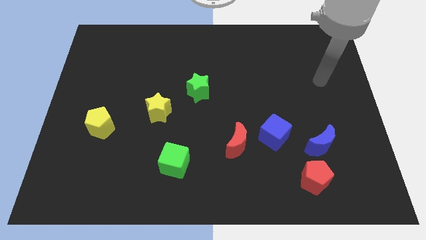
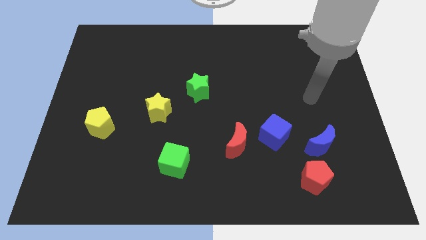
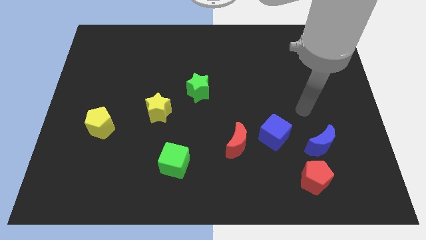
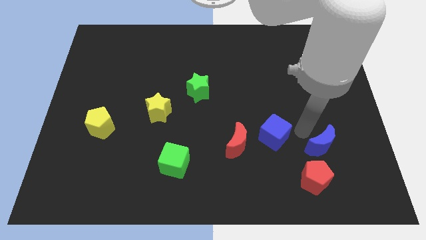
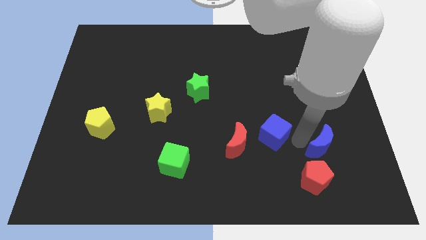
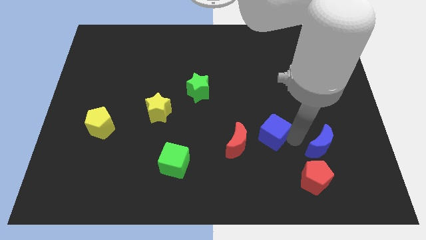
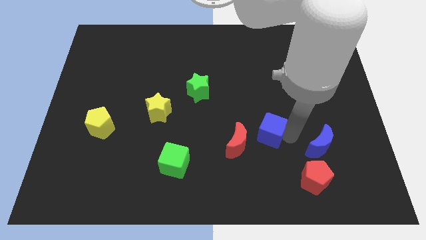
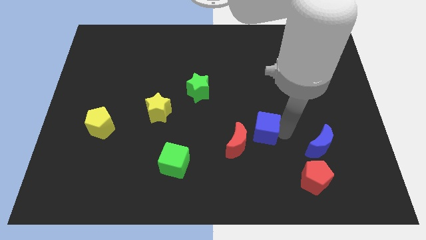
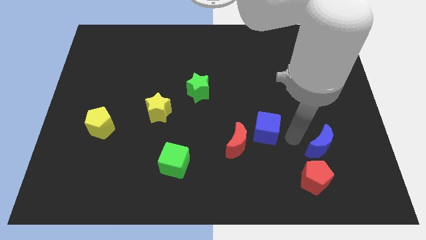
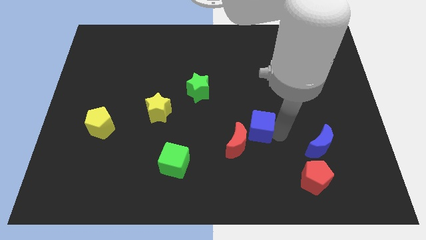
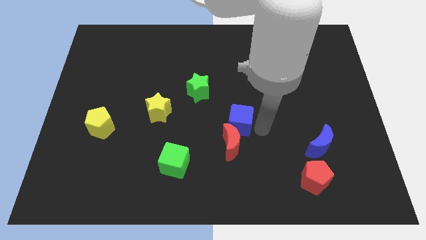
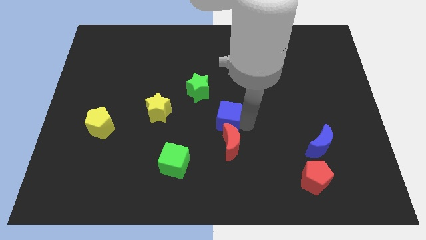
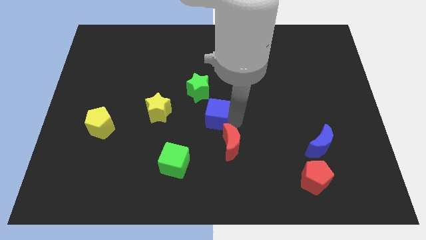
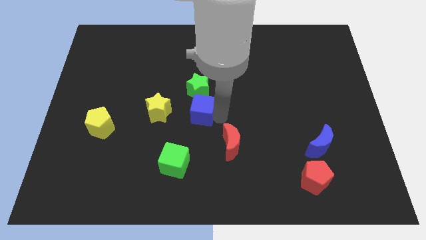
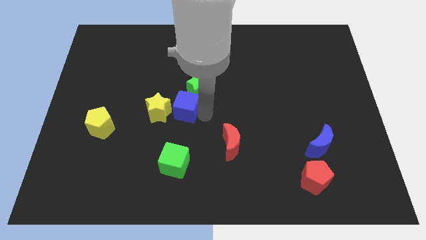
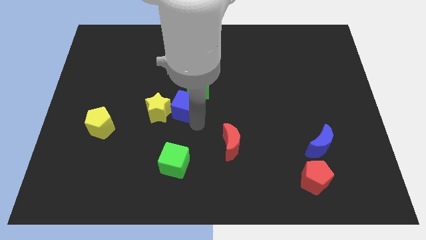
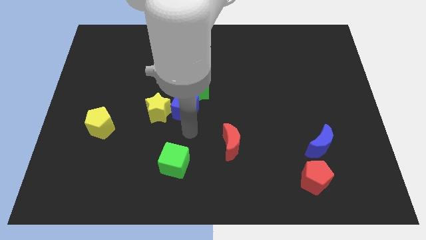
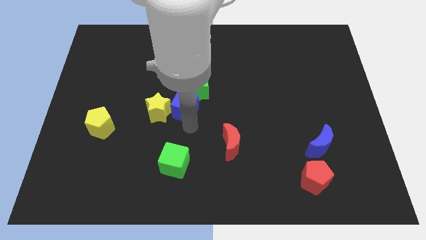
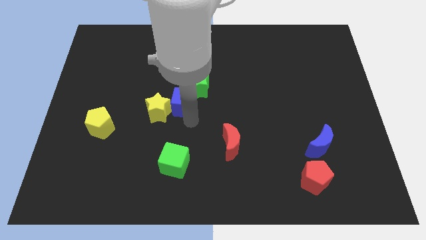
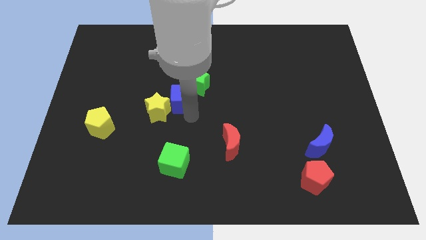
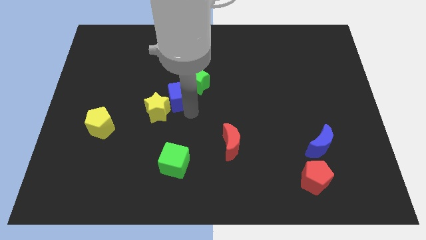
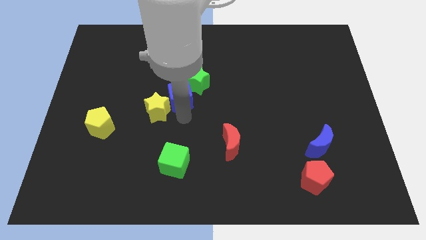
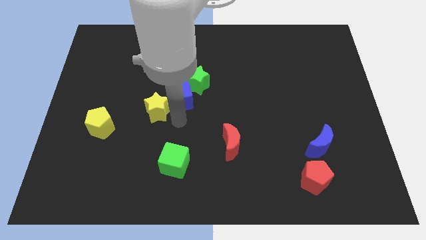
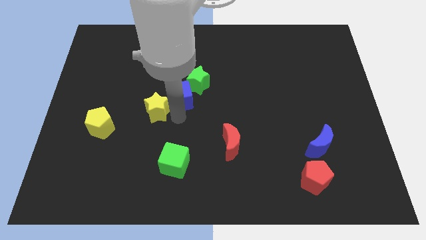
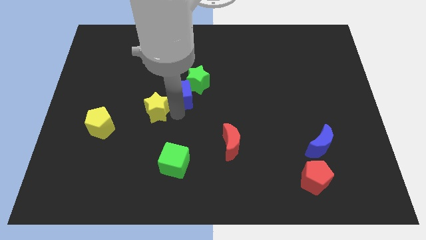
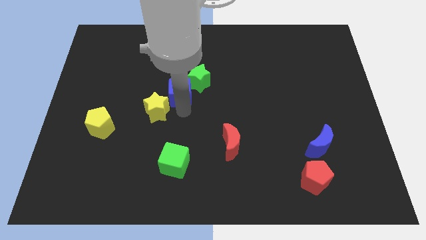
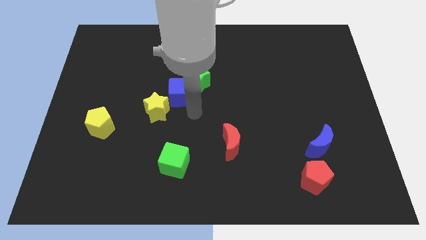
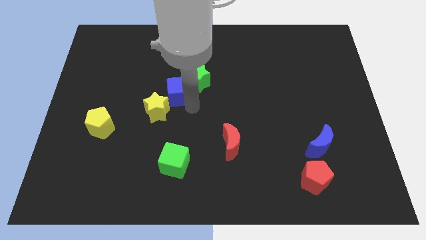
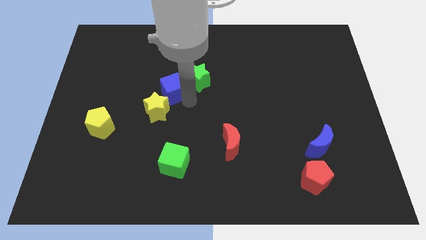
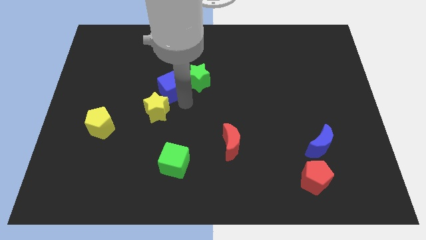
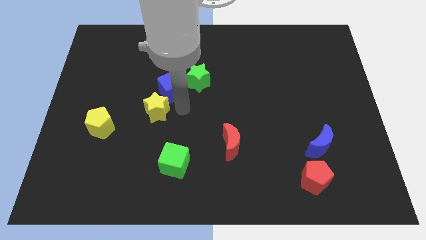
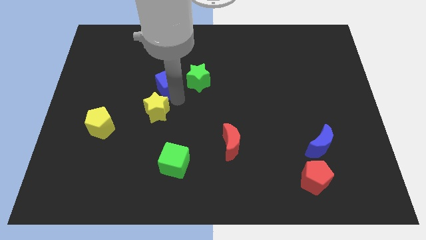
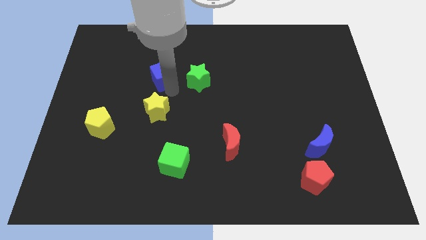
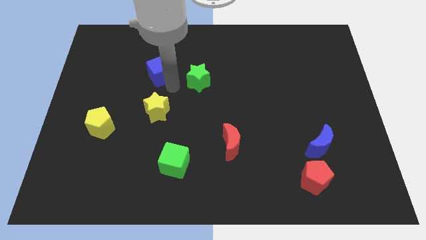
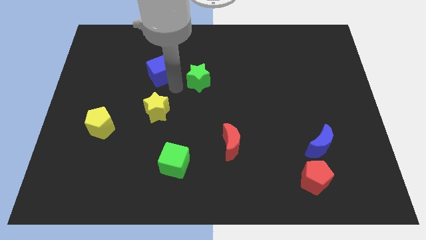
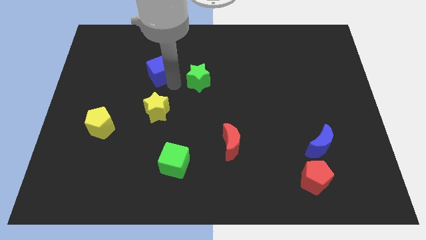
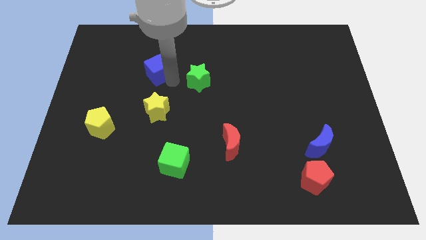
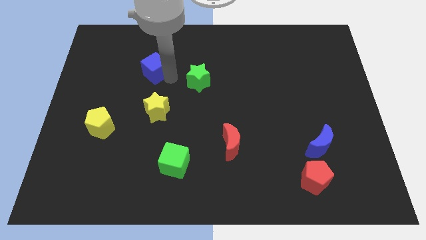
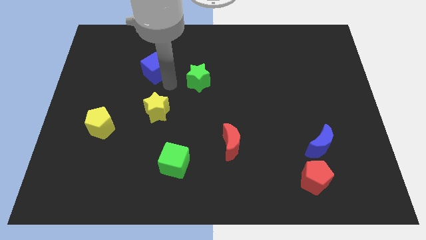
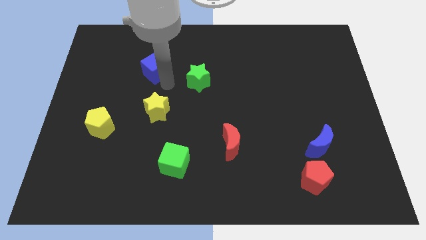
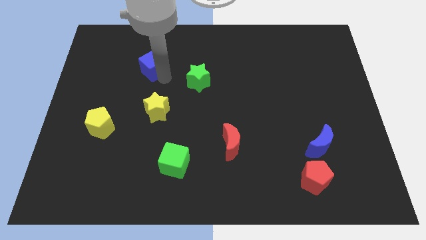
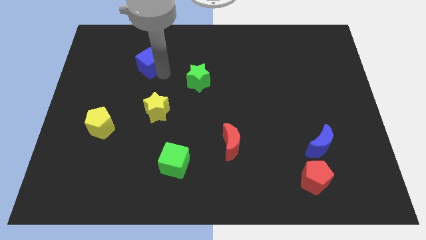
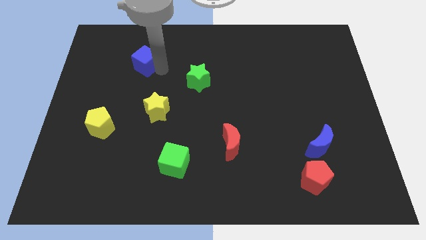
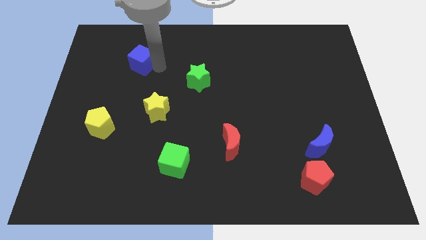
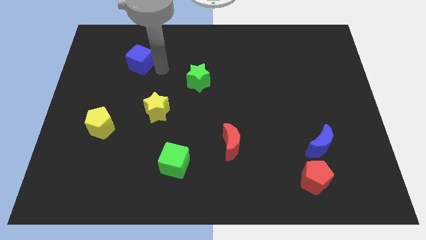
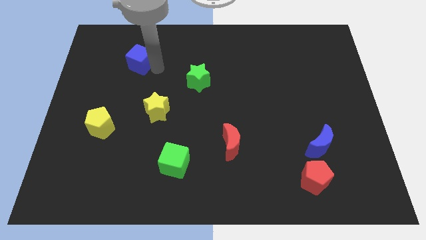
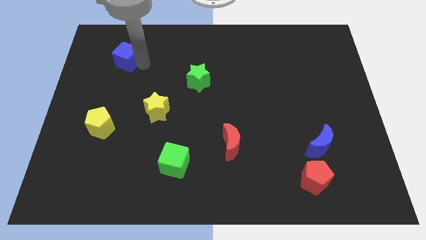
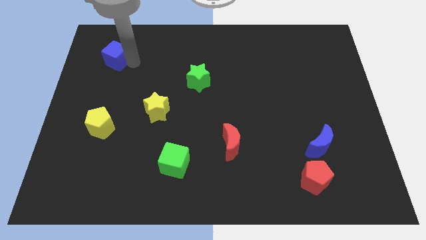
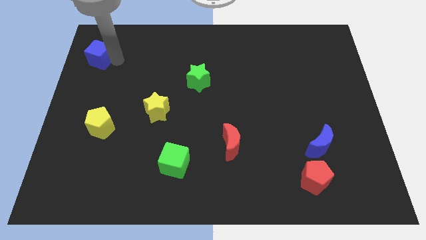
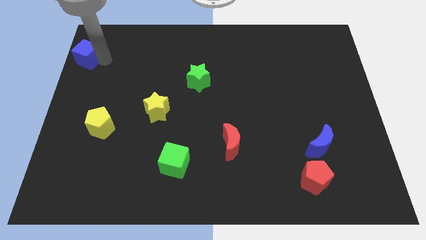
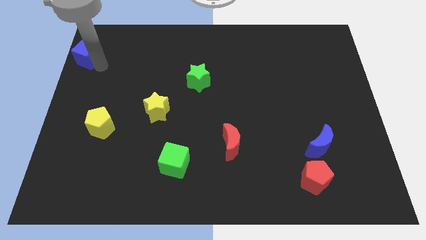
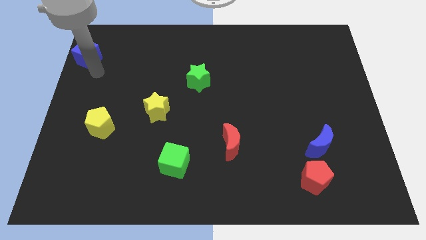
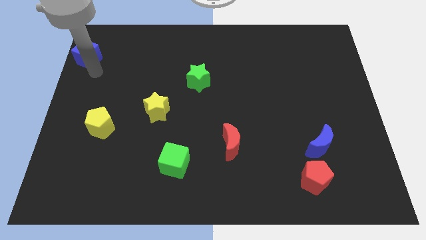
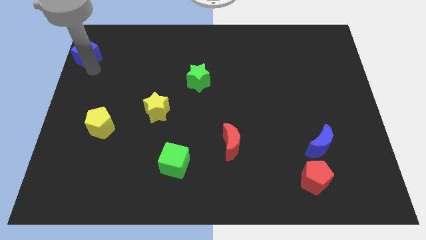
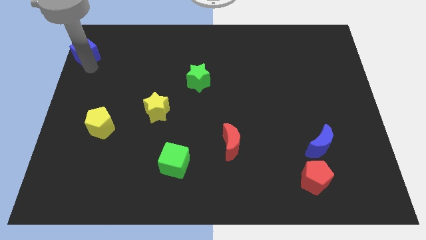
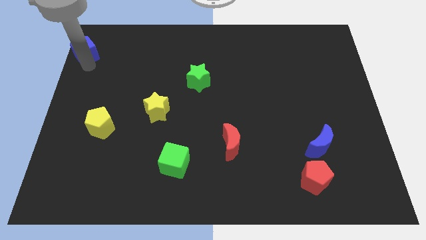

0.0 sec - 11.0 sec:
slide the blue cube to the top left corner
